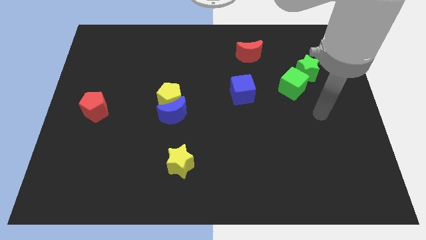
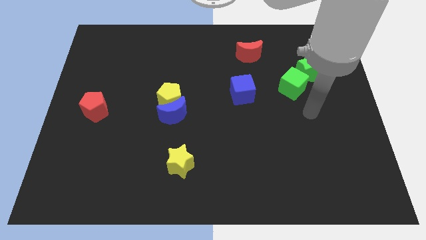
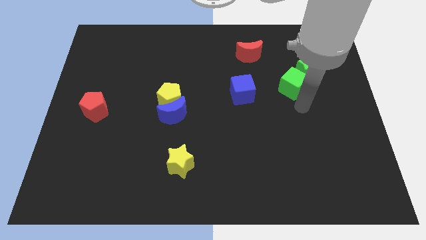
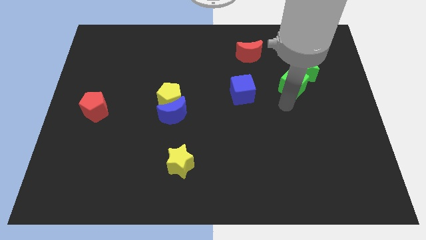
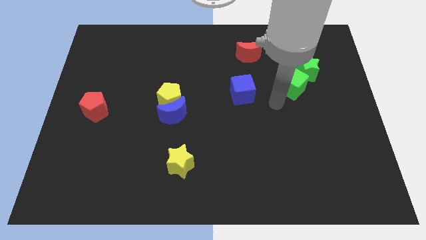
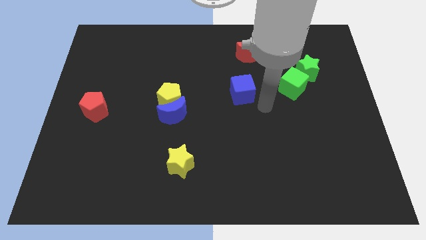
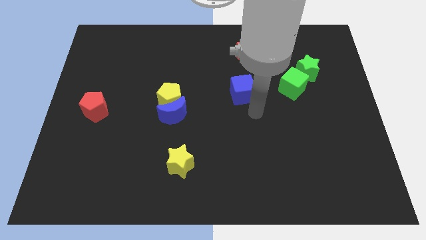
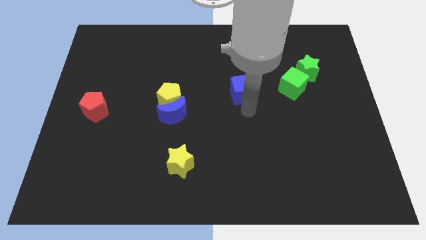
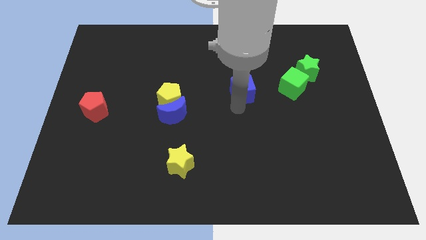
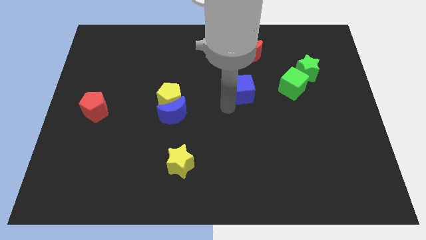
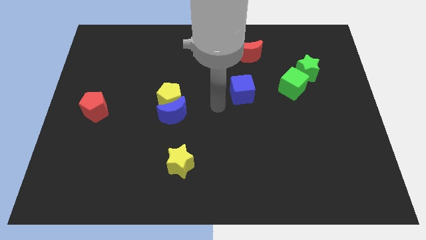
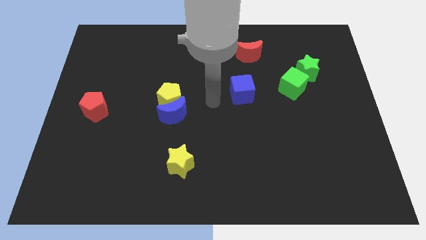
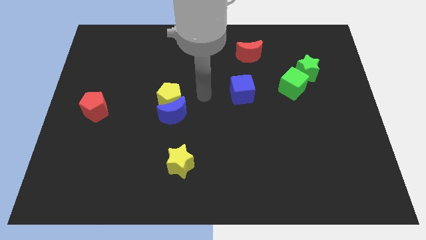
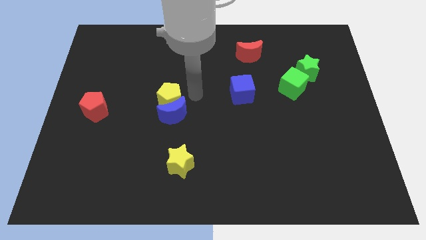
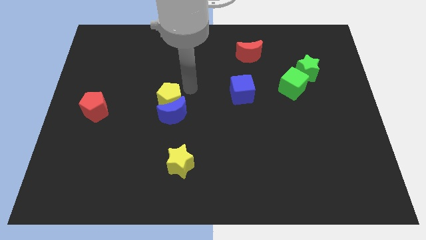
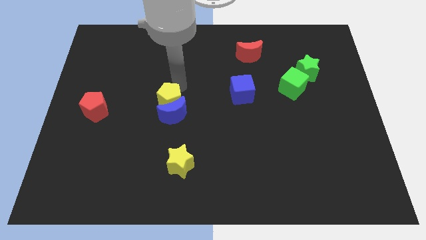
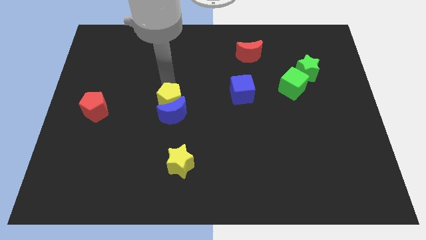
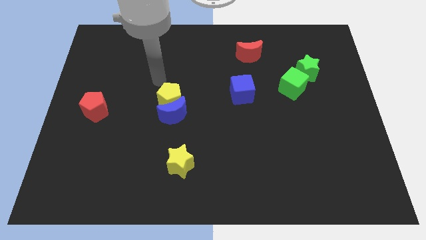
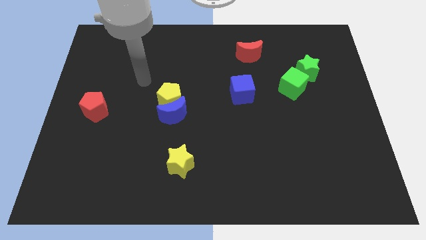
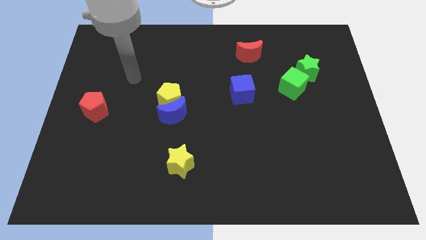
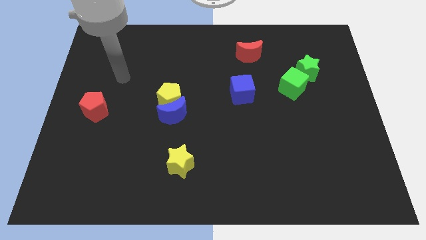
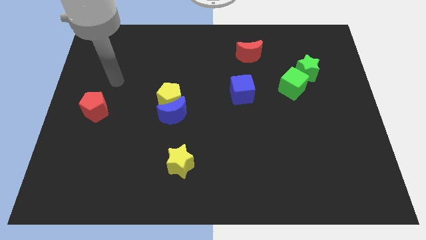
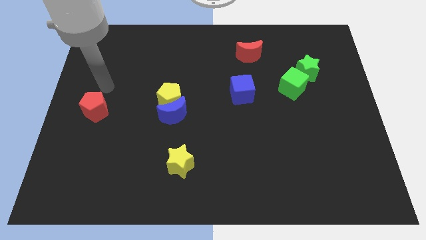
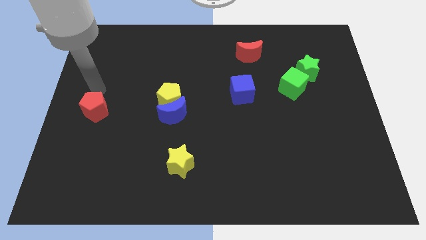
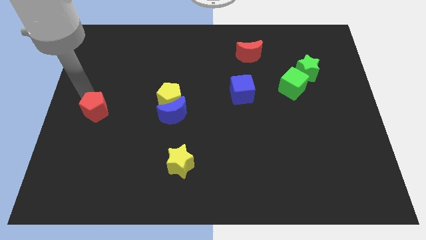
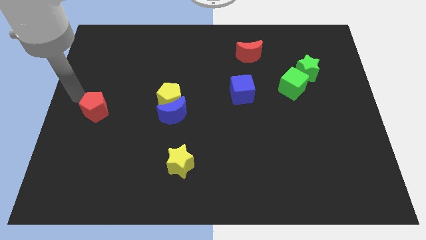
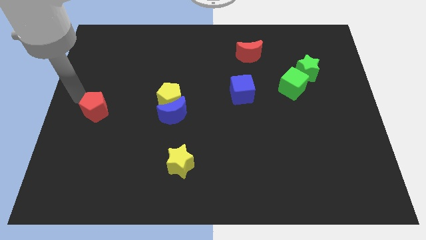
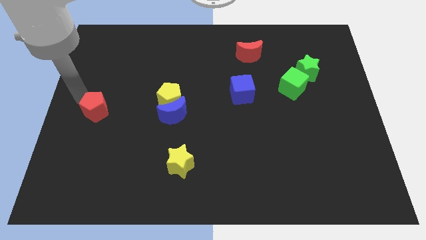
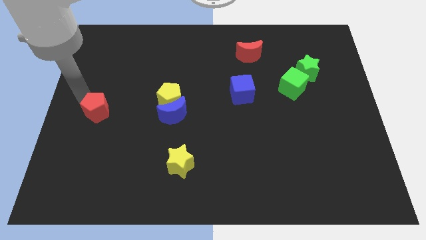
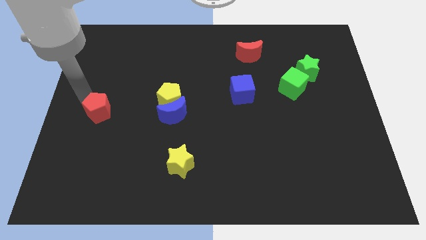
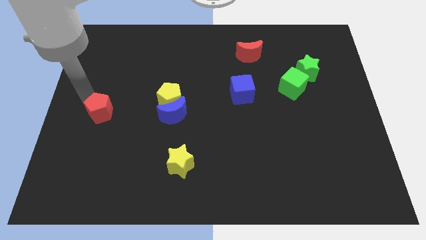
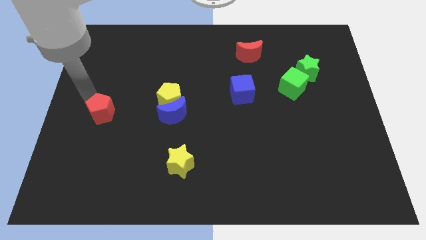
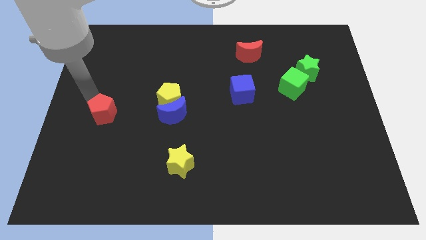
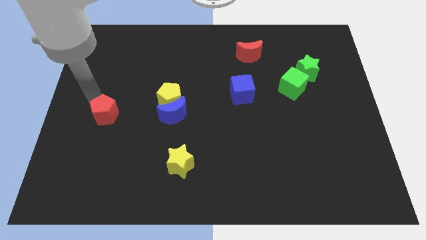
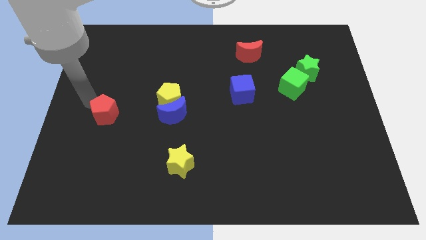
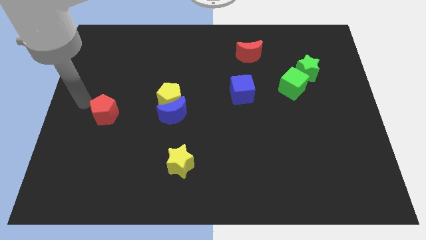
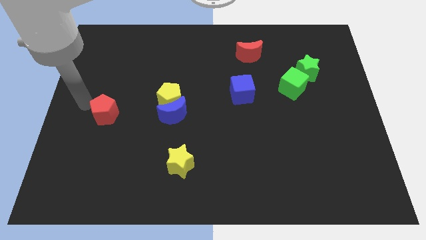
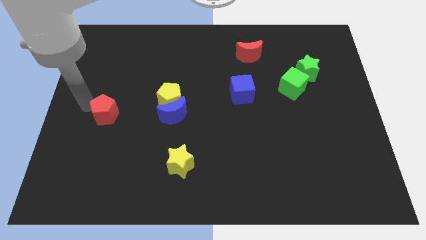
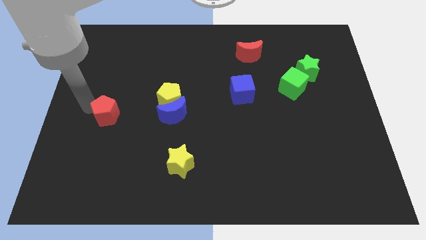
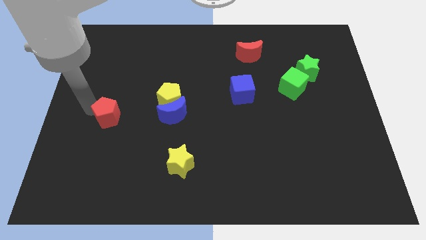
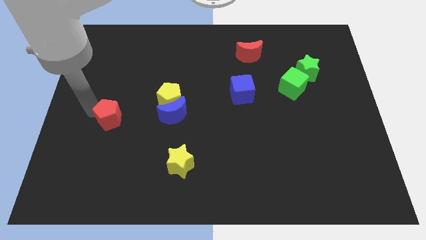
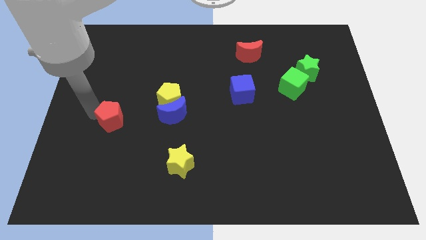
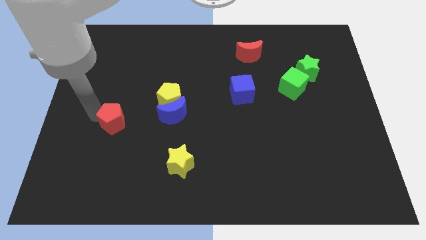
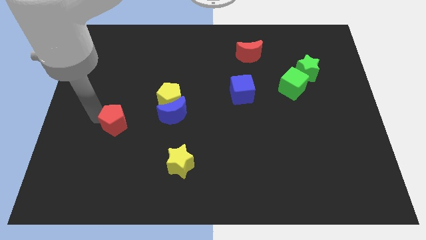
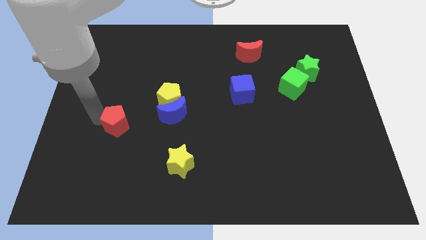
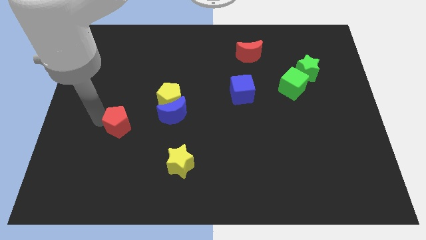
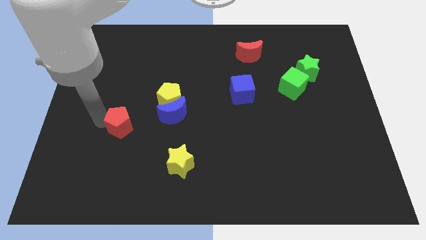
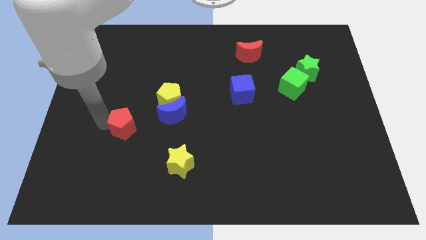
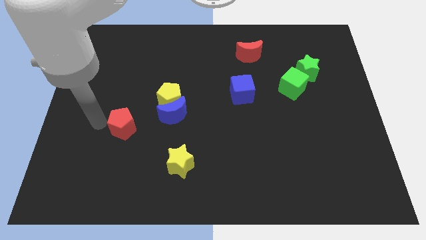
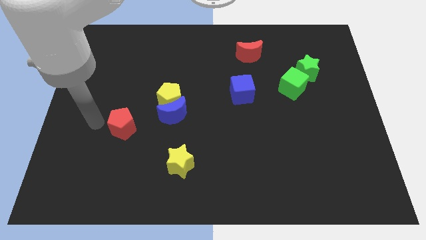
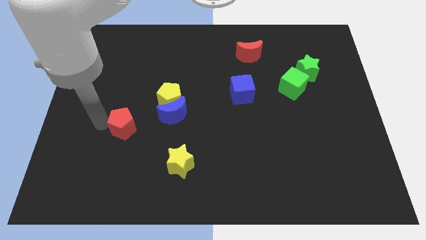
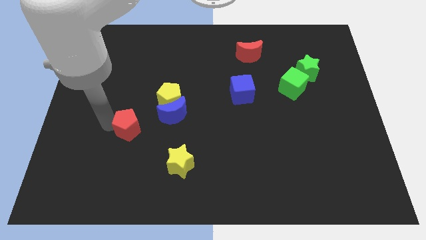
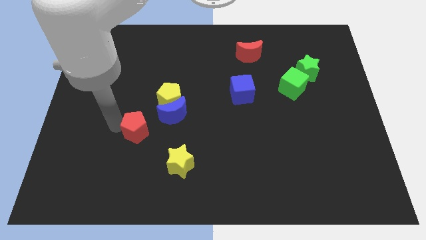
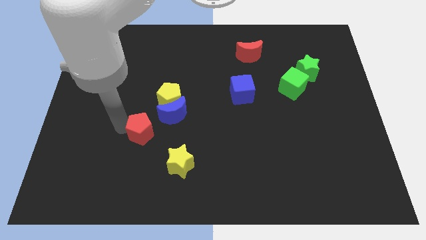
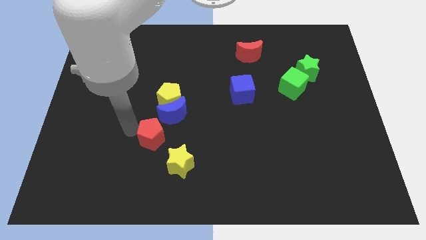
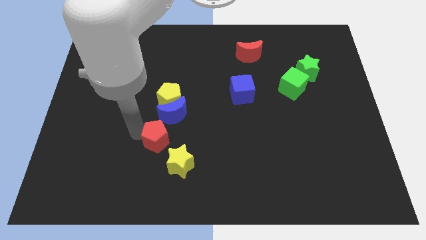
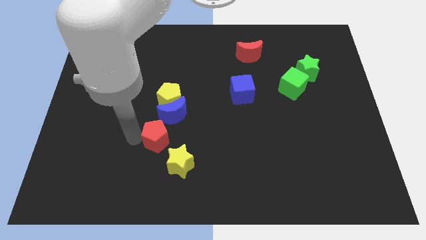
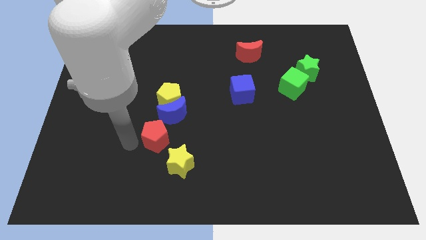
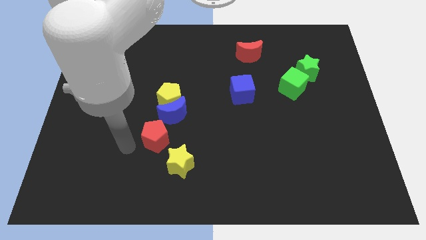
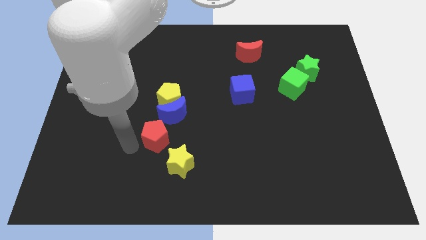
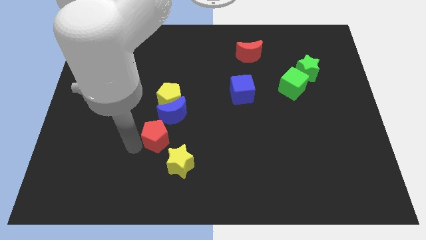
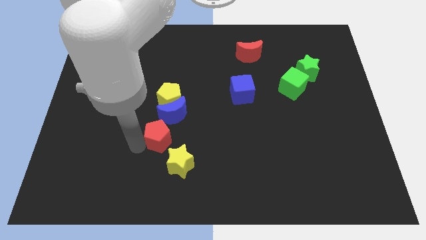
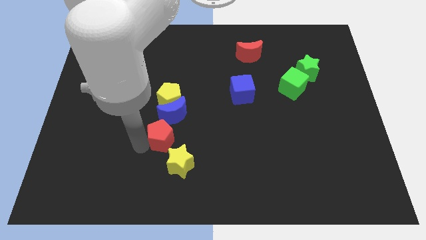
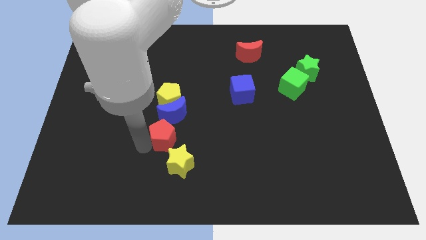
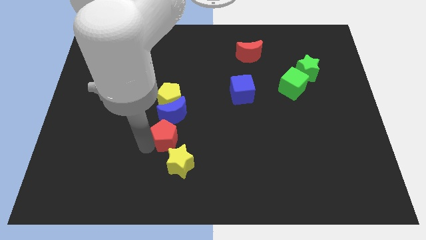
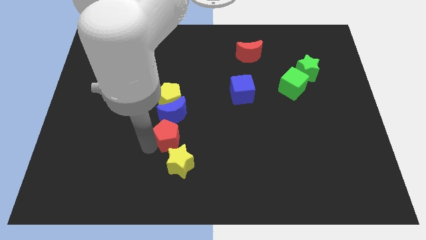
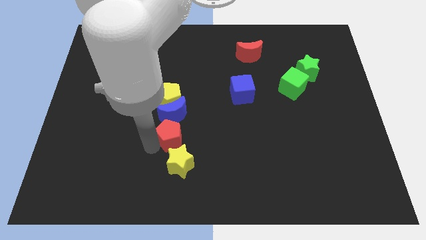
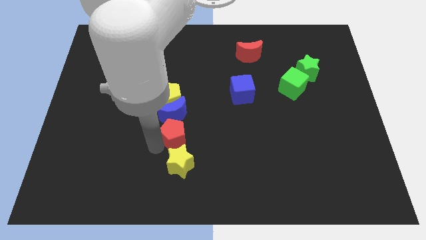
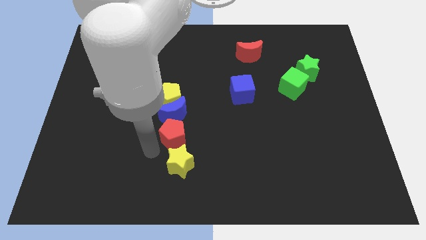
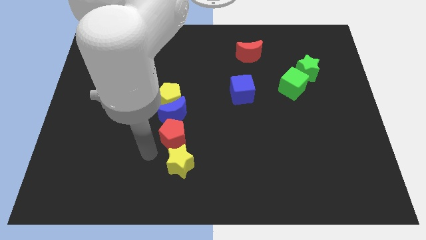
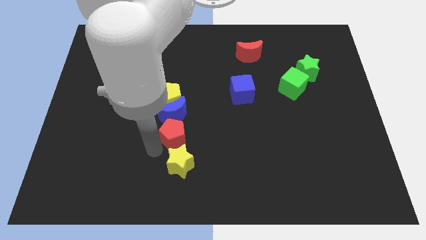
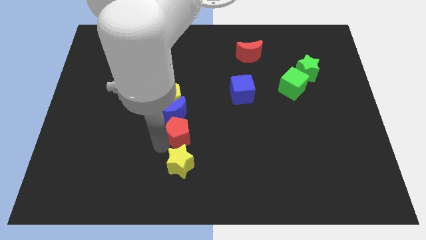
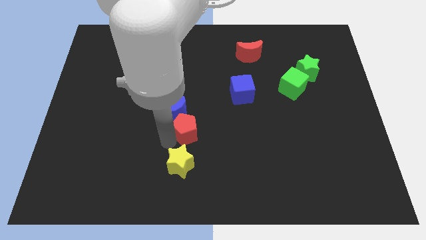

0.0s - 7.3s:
move the red pentagon right

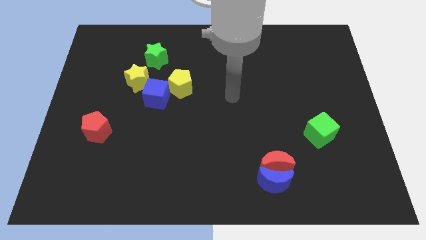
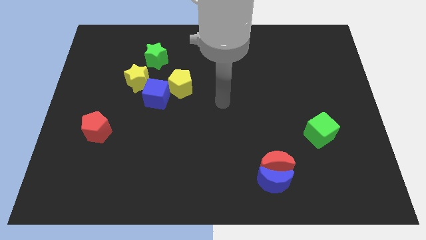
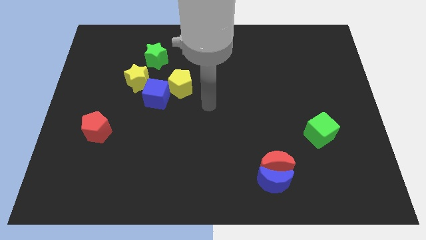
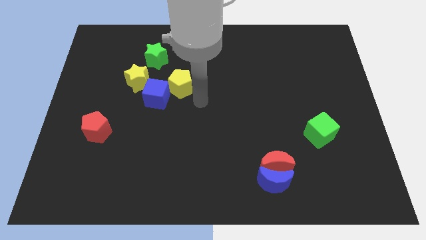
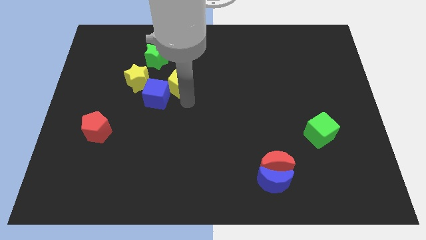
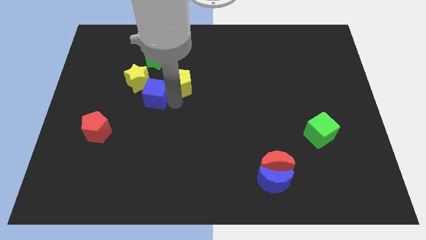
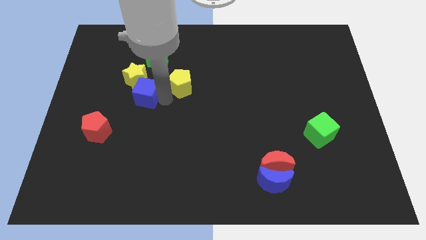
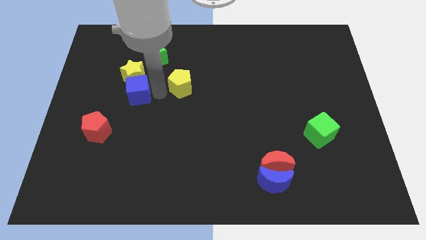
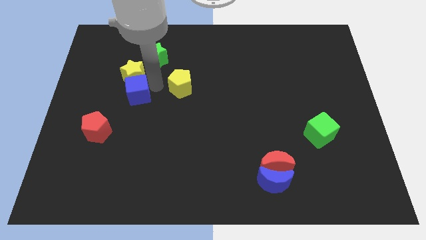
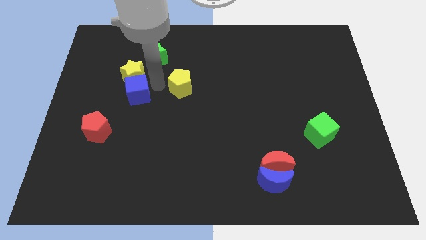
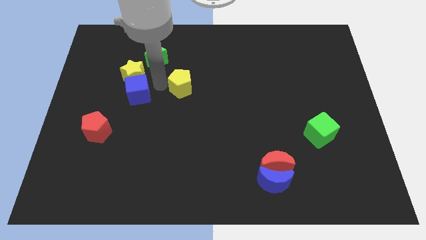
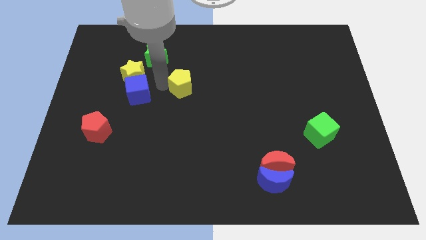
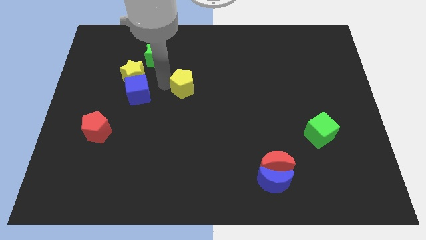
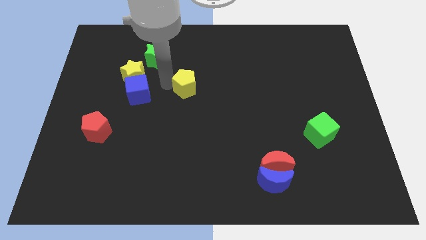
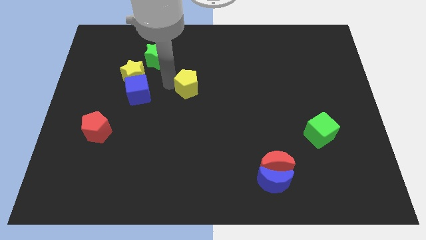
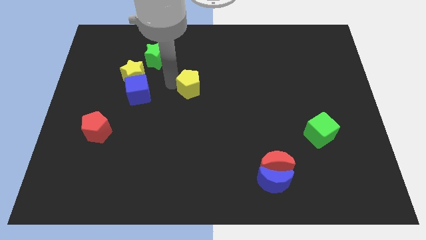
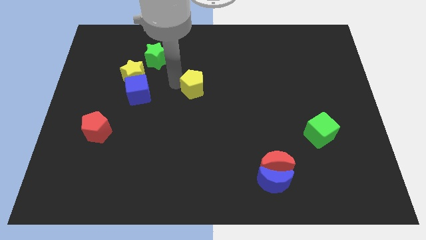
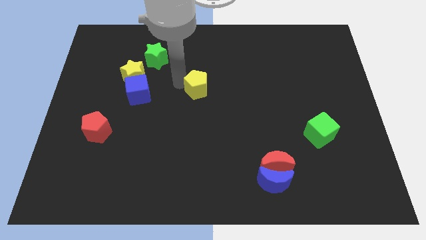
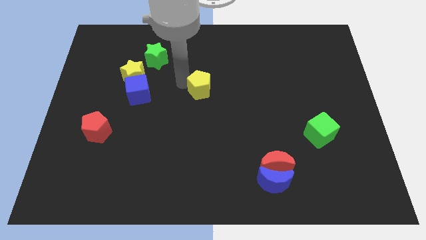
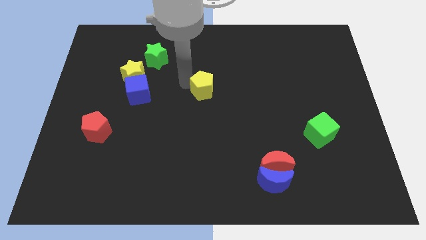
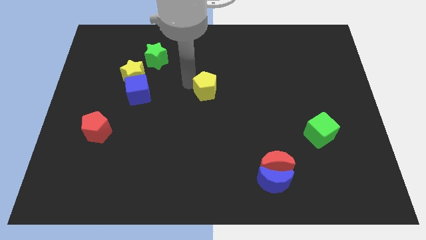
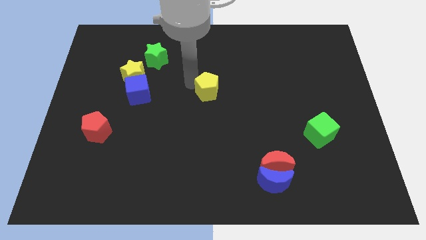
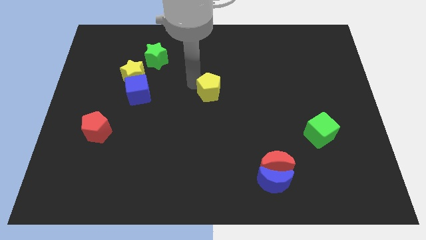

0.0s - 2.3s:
push the yellow pentagon a bit right
